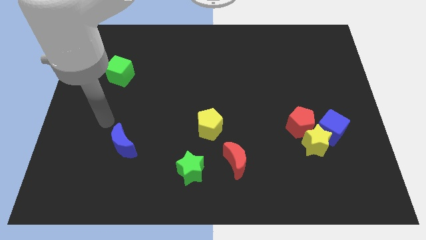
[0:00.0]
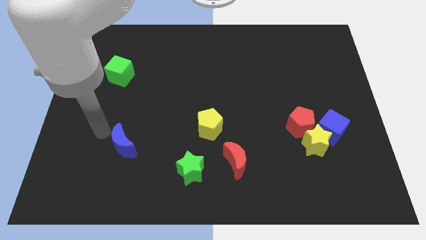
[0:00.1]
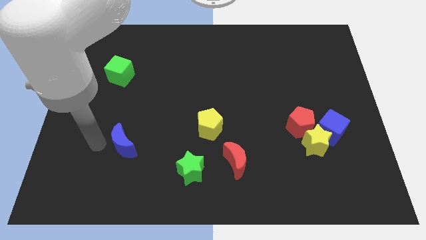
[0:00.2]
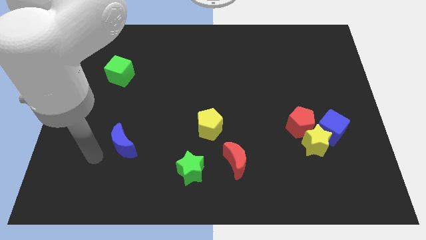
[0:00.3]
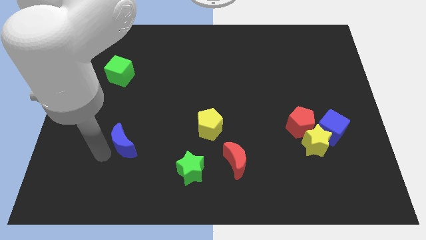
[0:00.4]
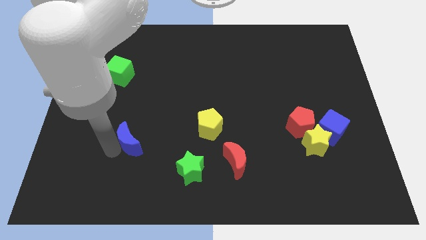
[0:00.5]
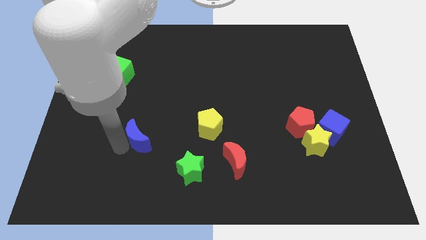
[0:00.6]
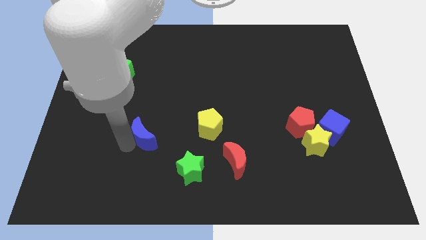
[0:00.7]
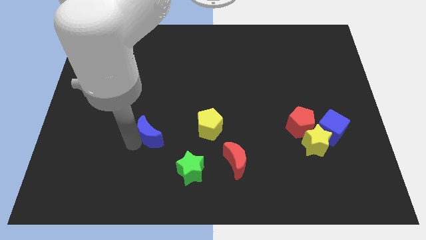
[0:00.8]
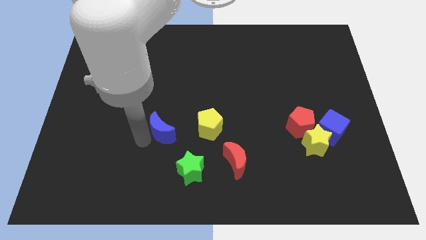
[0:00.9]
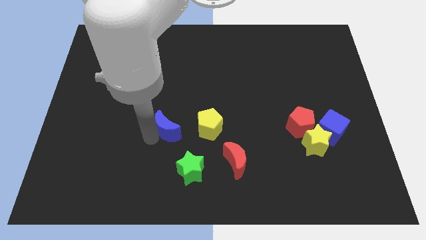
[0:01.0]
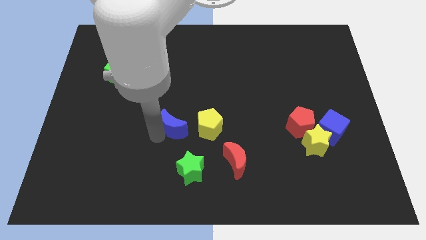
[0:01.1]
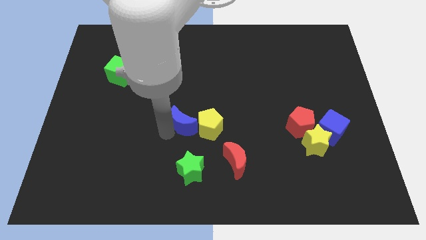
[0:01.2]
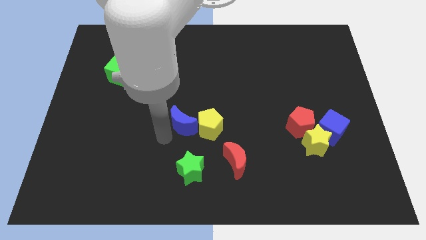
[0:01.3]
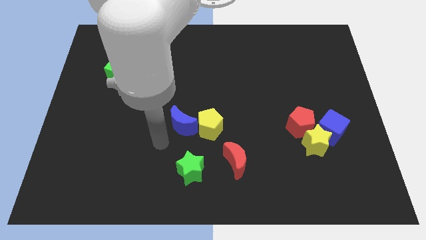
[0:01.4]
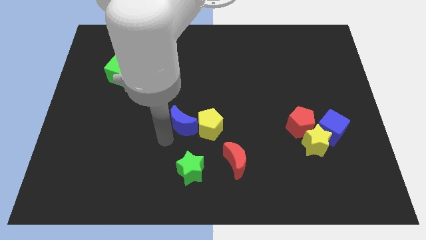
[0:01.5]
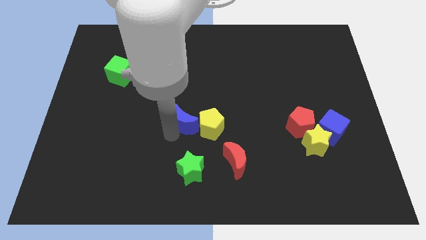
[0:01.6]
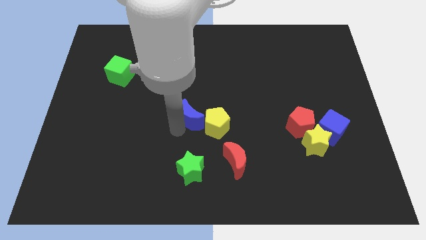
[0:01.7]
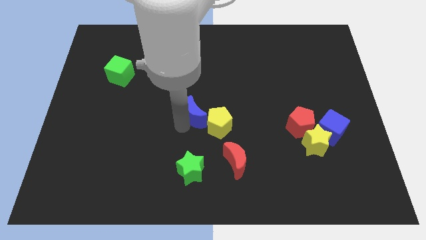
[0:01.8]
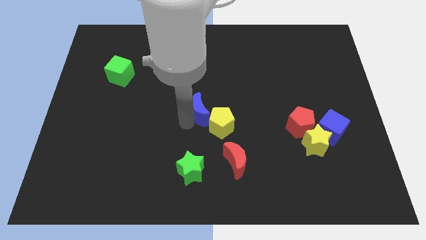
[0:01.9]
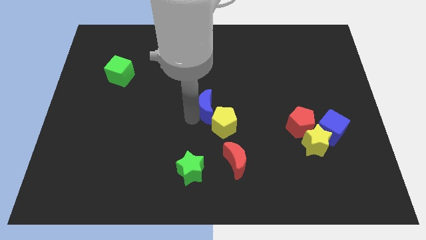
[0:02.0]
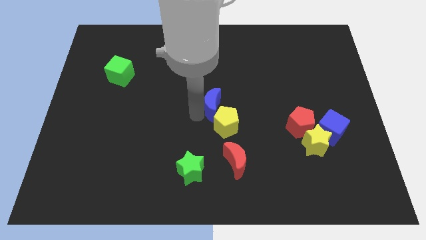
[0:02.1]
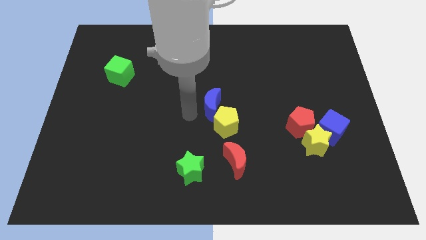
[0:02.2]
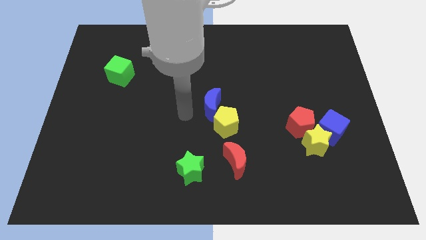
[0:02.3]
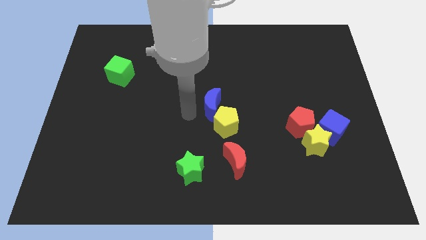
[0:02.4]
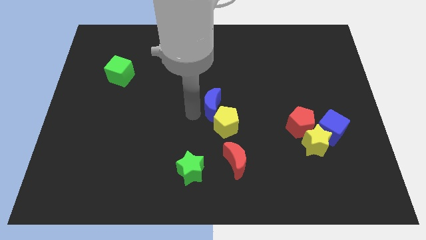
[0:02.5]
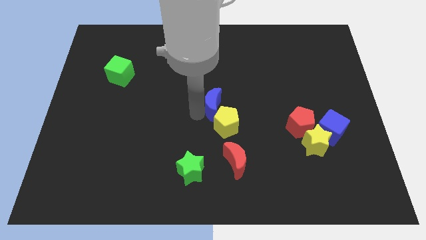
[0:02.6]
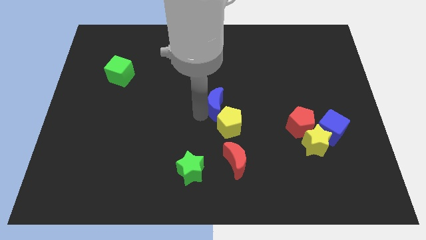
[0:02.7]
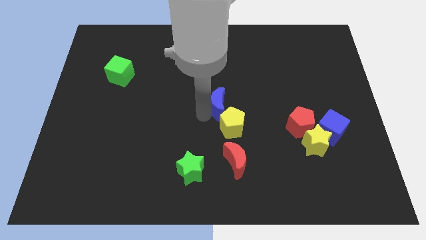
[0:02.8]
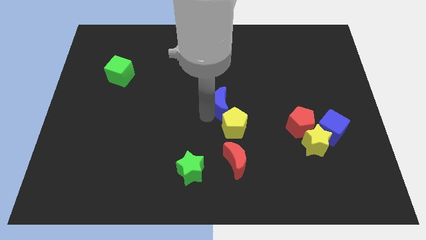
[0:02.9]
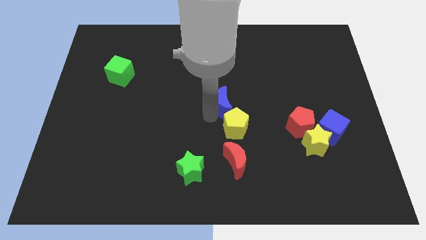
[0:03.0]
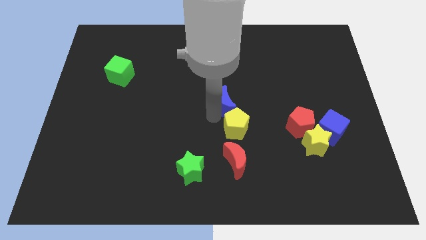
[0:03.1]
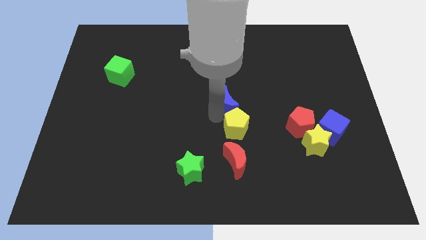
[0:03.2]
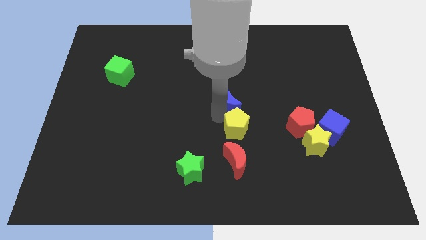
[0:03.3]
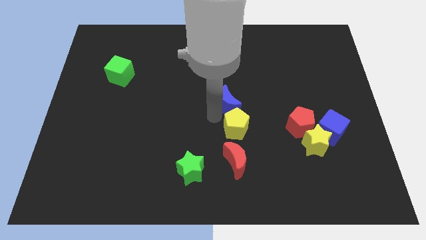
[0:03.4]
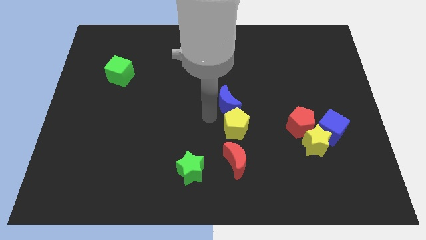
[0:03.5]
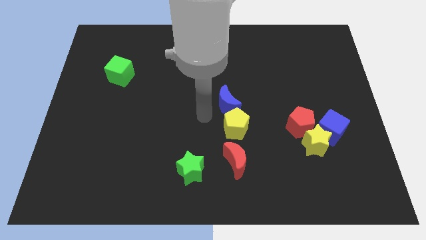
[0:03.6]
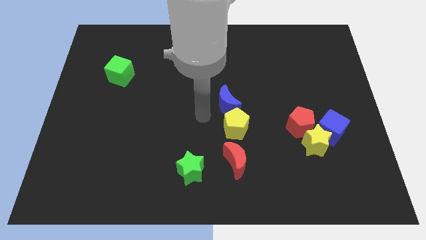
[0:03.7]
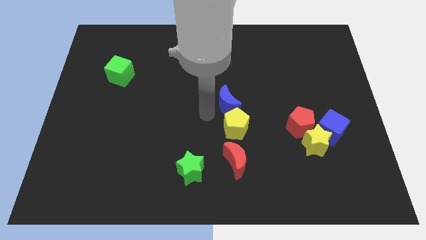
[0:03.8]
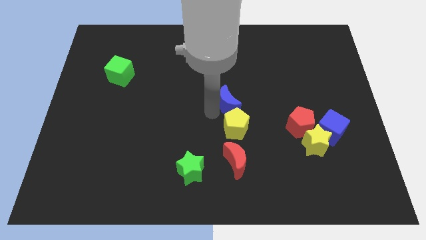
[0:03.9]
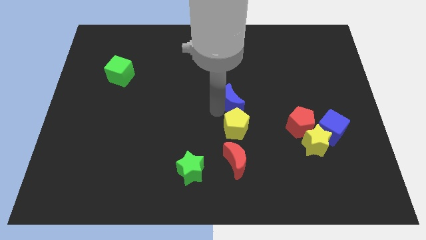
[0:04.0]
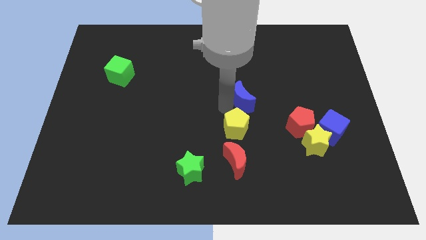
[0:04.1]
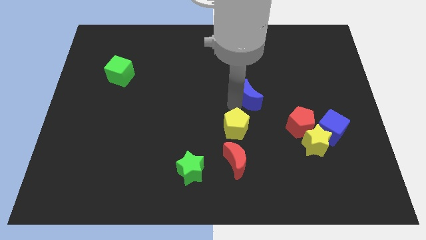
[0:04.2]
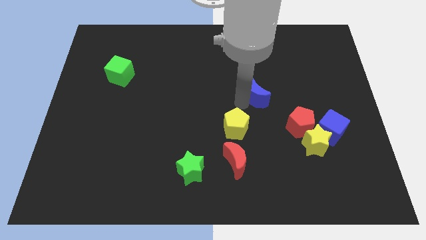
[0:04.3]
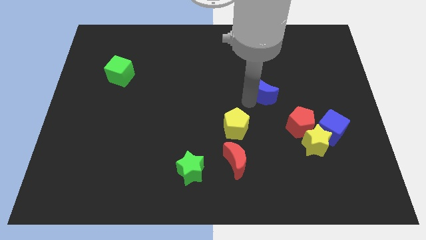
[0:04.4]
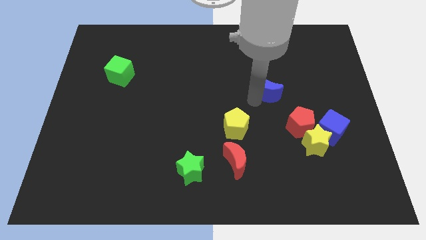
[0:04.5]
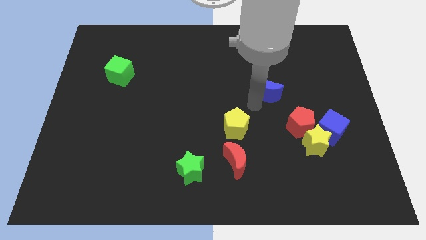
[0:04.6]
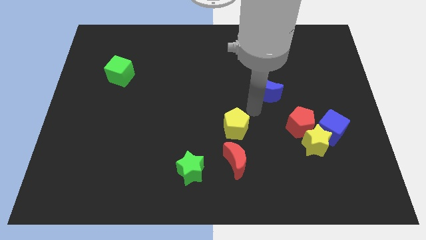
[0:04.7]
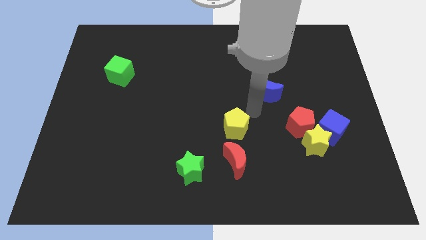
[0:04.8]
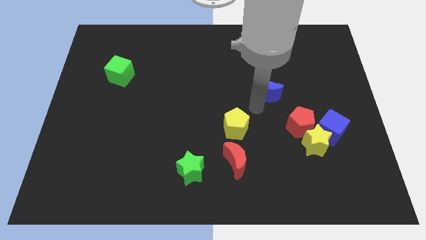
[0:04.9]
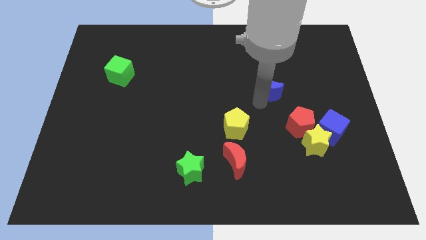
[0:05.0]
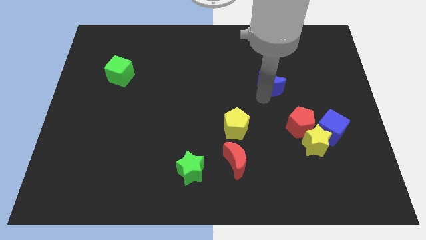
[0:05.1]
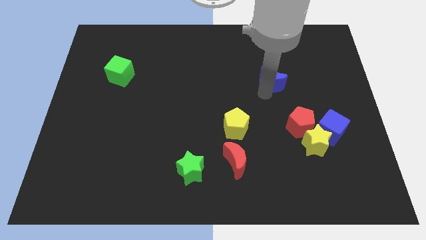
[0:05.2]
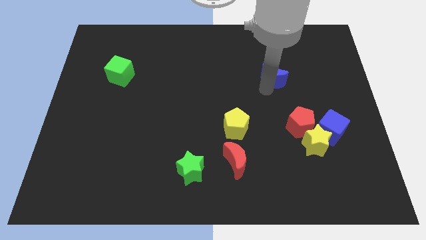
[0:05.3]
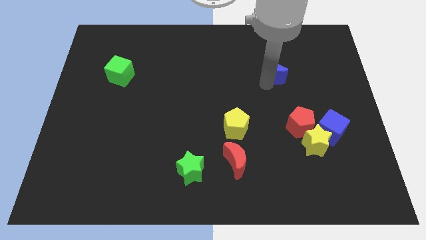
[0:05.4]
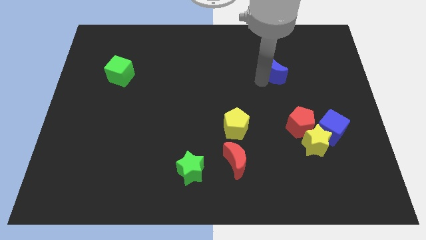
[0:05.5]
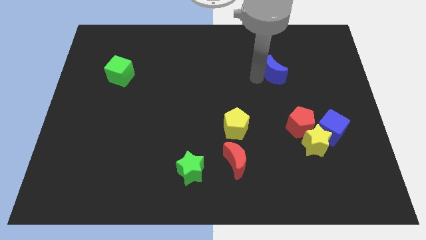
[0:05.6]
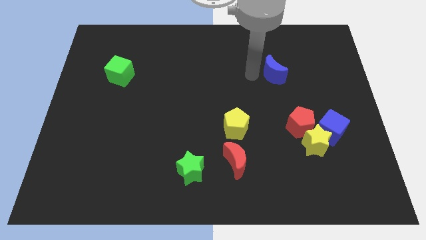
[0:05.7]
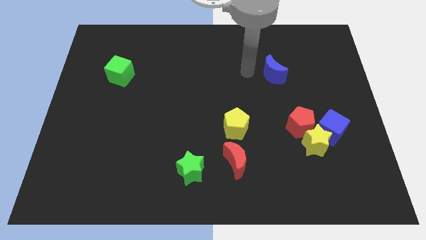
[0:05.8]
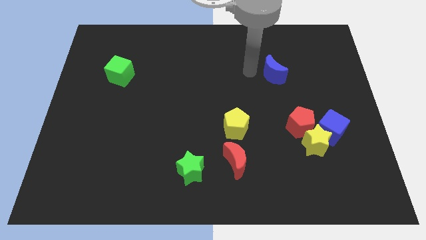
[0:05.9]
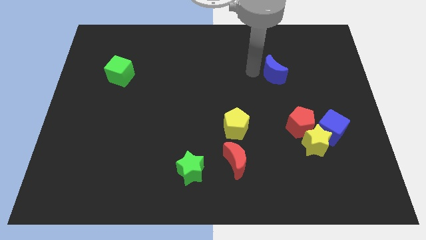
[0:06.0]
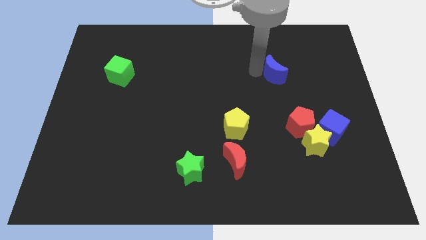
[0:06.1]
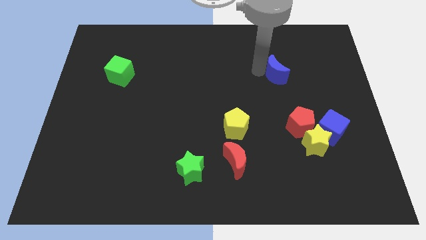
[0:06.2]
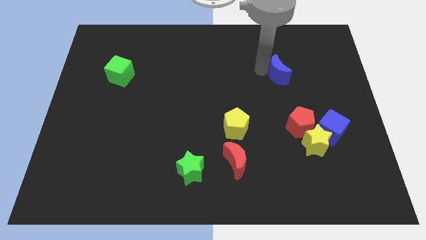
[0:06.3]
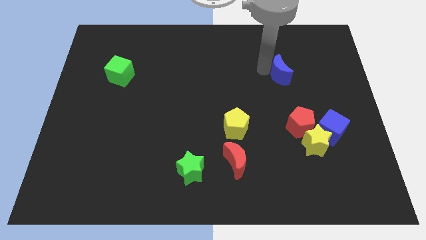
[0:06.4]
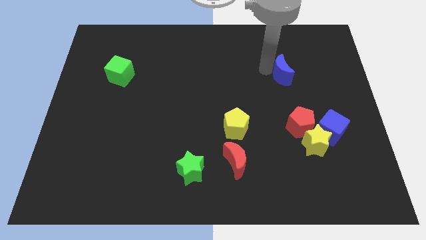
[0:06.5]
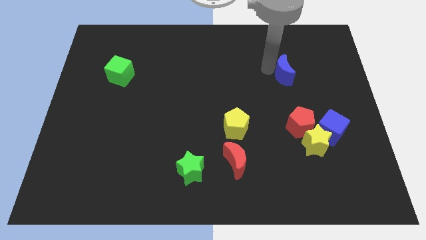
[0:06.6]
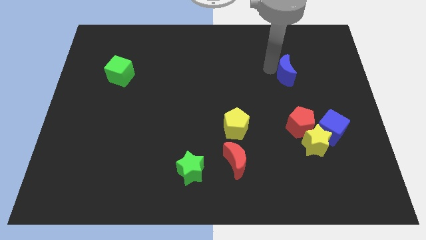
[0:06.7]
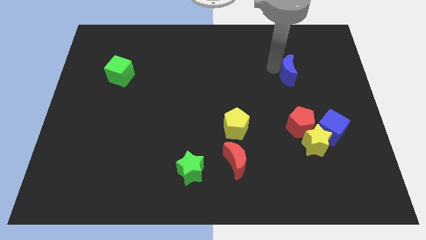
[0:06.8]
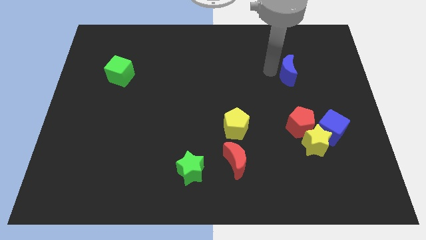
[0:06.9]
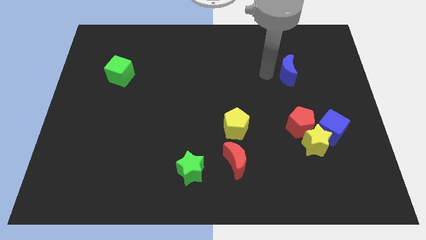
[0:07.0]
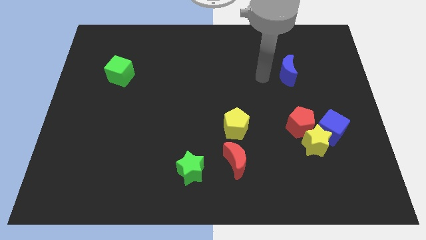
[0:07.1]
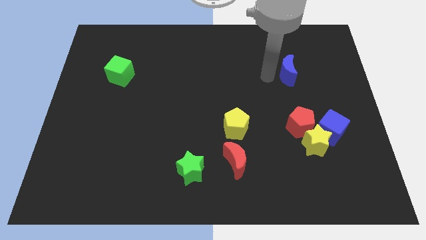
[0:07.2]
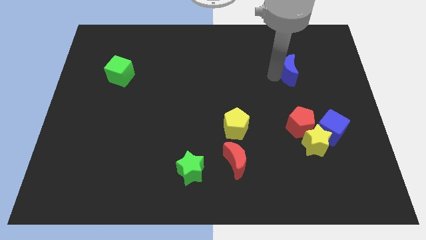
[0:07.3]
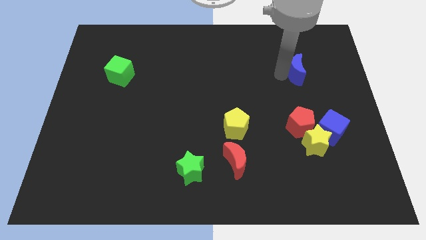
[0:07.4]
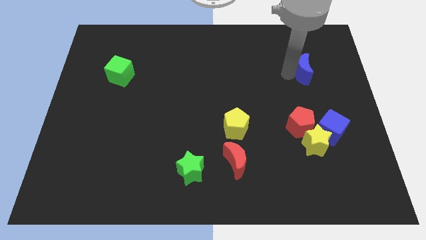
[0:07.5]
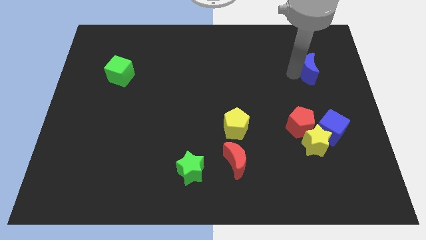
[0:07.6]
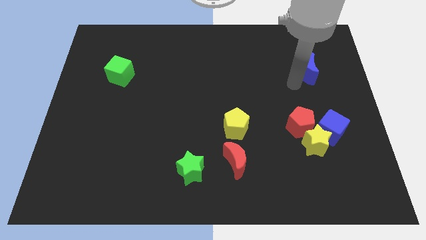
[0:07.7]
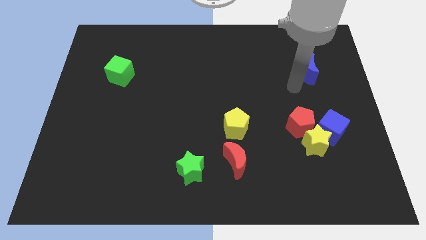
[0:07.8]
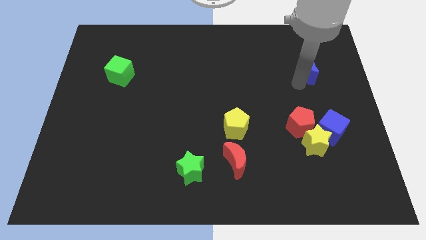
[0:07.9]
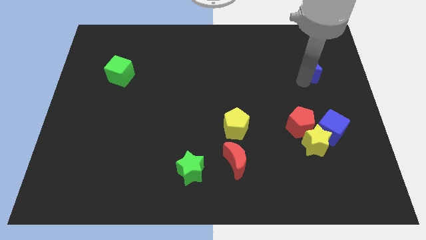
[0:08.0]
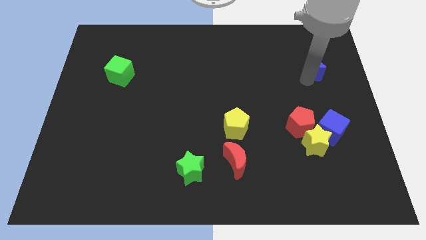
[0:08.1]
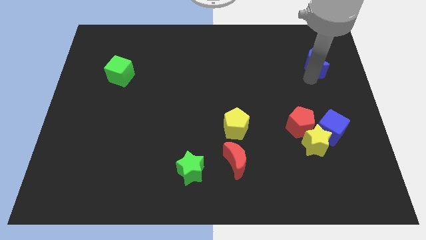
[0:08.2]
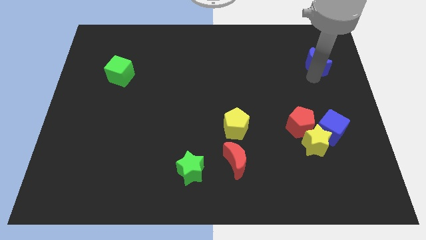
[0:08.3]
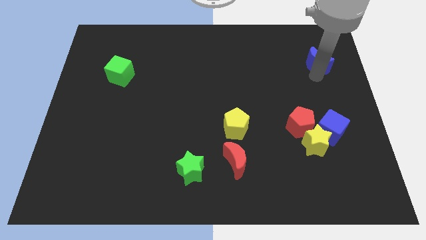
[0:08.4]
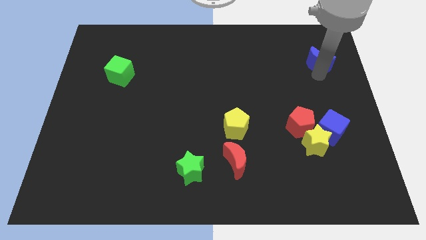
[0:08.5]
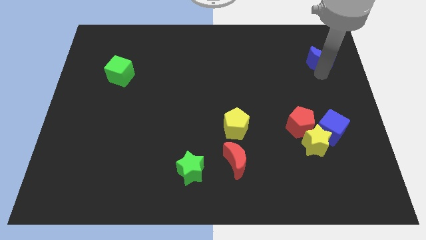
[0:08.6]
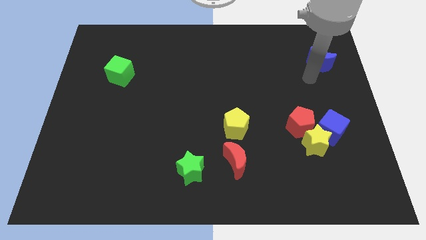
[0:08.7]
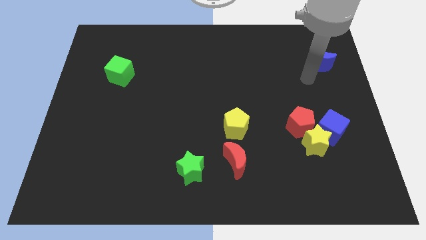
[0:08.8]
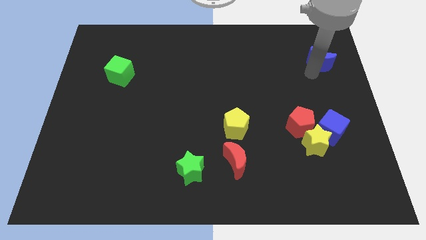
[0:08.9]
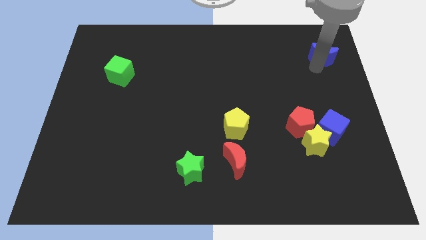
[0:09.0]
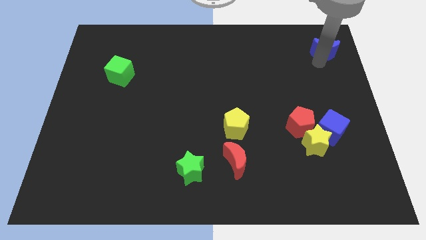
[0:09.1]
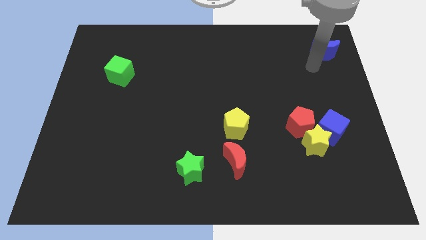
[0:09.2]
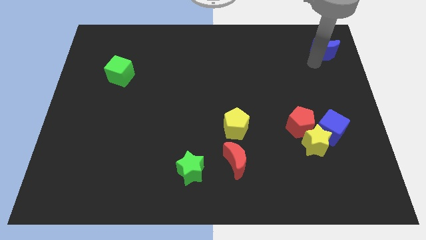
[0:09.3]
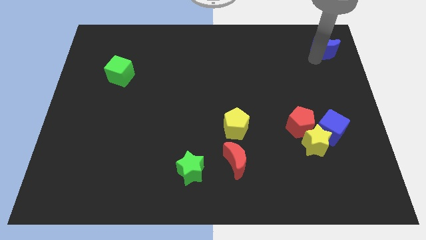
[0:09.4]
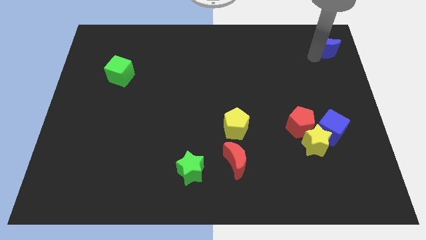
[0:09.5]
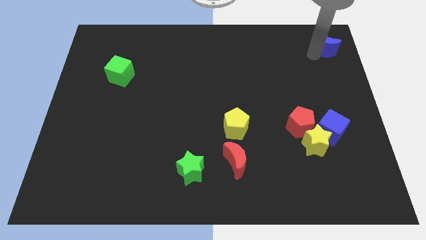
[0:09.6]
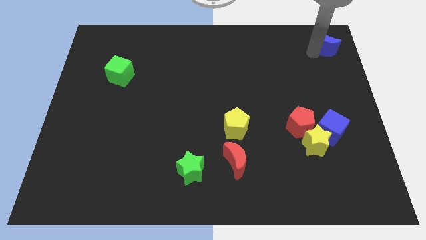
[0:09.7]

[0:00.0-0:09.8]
put the blue moon to the top right corner
